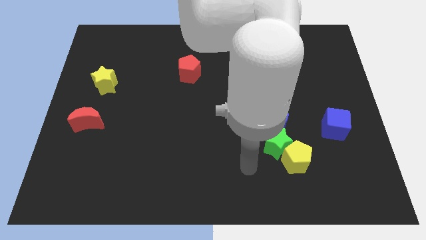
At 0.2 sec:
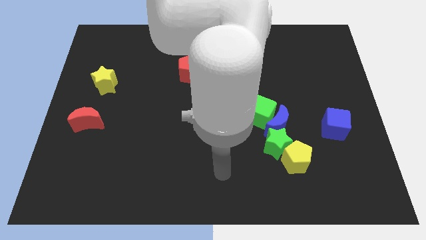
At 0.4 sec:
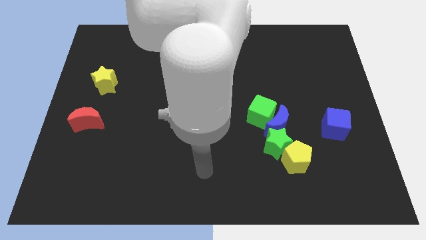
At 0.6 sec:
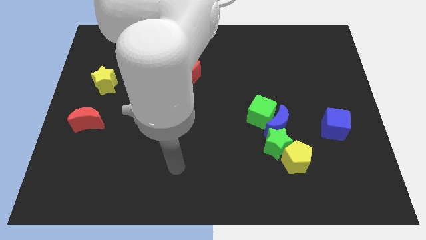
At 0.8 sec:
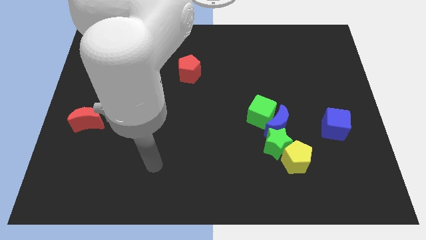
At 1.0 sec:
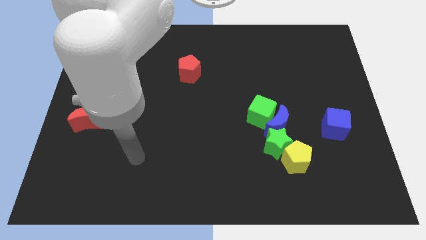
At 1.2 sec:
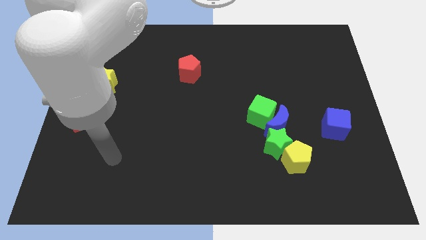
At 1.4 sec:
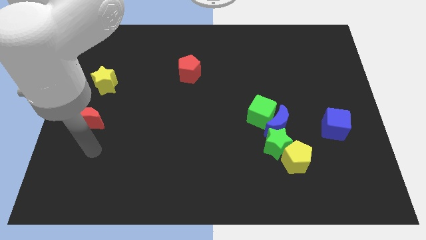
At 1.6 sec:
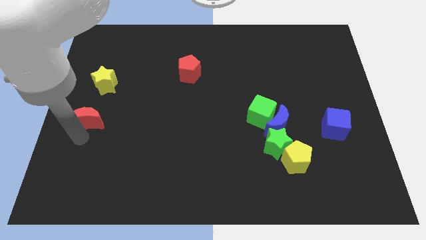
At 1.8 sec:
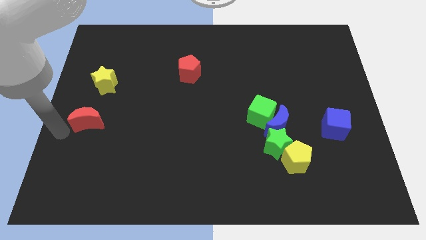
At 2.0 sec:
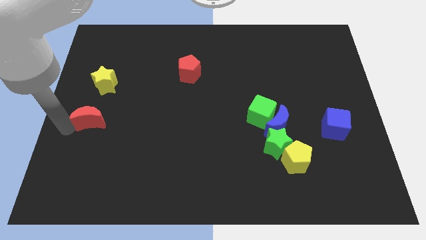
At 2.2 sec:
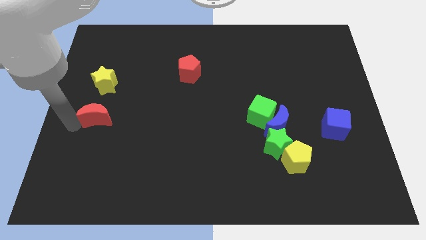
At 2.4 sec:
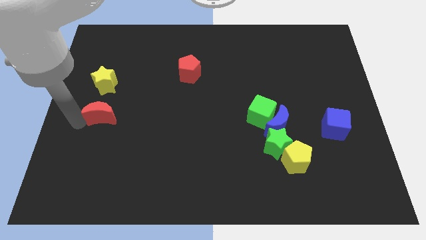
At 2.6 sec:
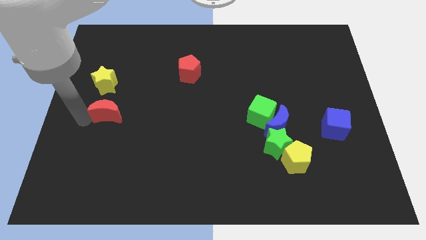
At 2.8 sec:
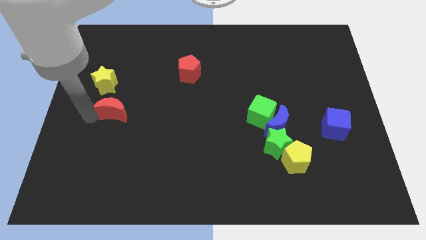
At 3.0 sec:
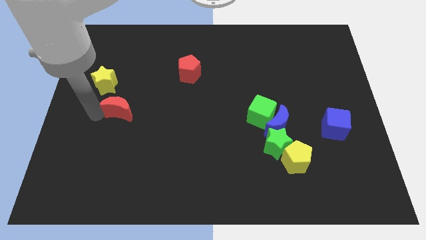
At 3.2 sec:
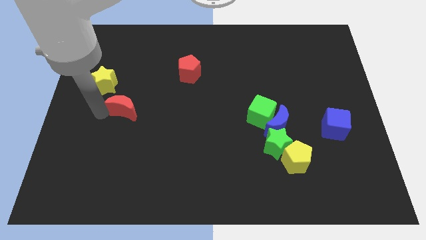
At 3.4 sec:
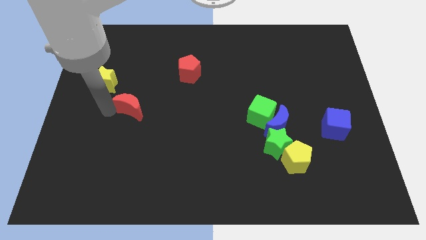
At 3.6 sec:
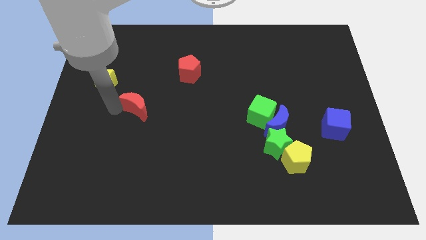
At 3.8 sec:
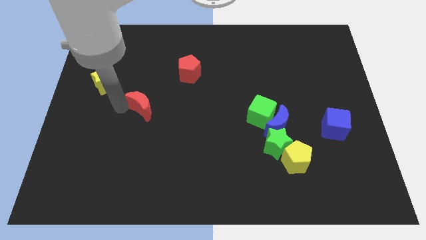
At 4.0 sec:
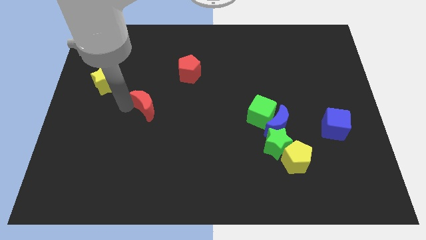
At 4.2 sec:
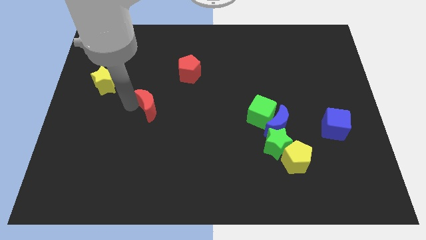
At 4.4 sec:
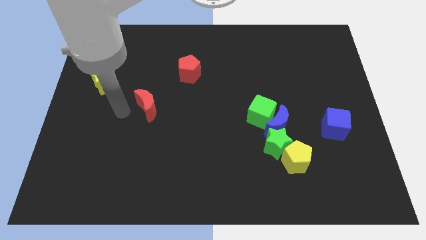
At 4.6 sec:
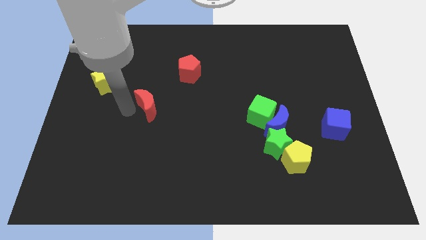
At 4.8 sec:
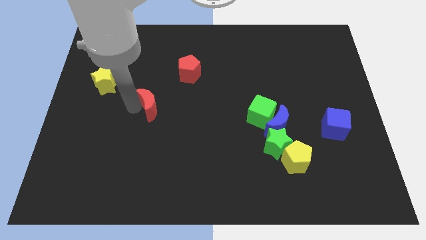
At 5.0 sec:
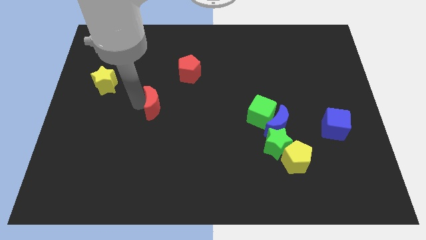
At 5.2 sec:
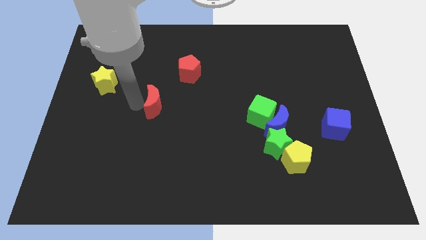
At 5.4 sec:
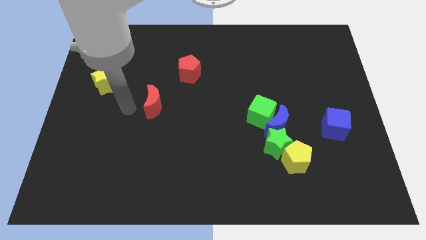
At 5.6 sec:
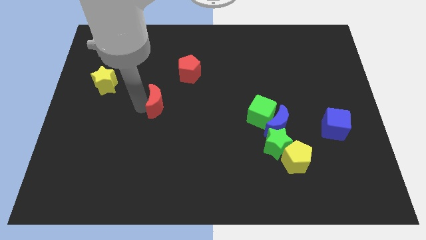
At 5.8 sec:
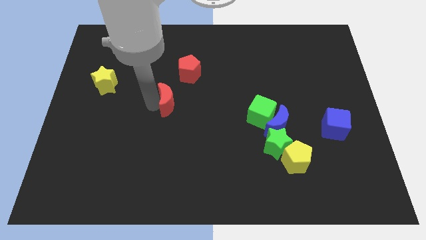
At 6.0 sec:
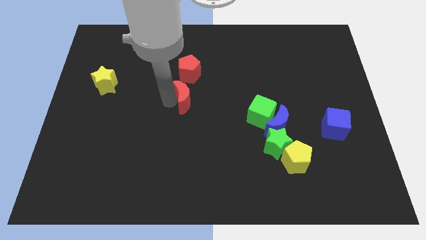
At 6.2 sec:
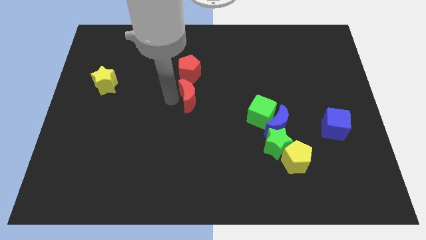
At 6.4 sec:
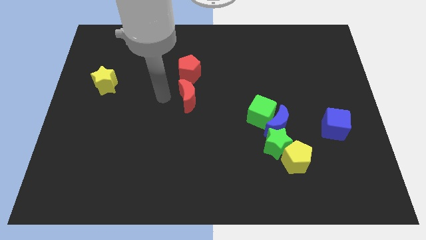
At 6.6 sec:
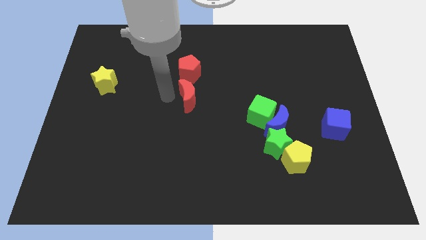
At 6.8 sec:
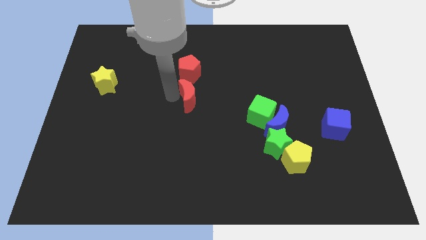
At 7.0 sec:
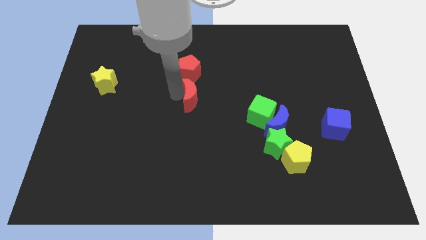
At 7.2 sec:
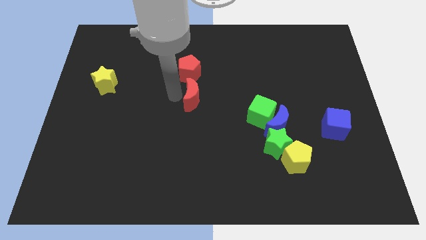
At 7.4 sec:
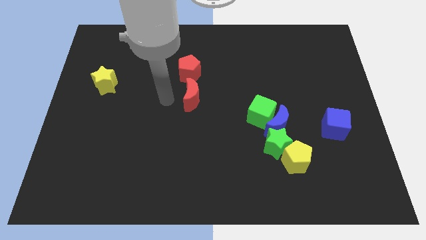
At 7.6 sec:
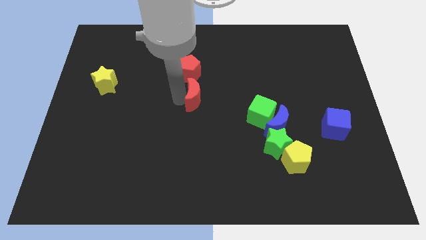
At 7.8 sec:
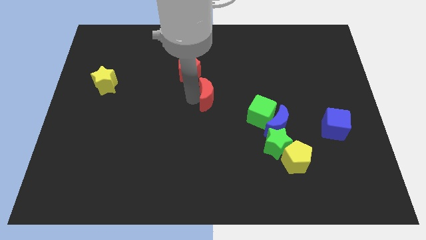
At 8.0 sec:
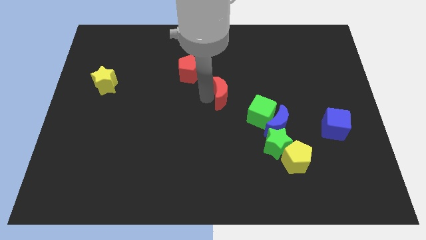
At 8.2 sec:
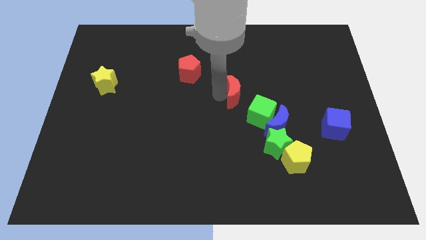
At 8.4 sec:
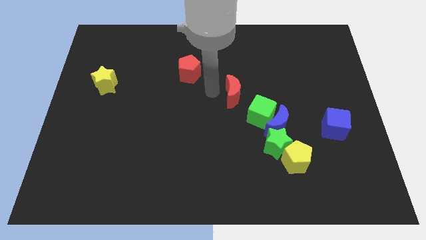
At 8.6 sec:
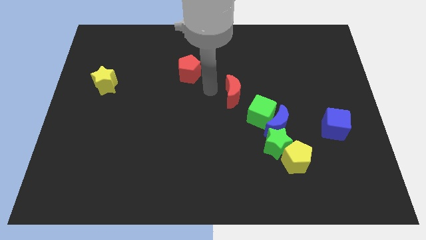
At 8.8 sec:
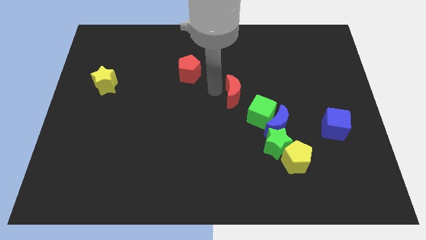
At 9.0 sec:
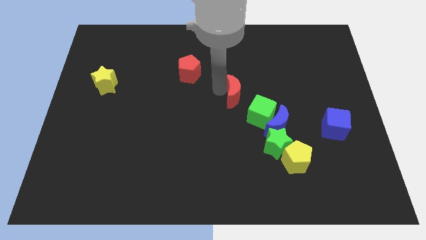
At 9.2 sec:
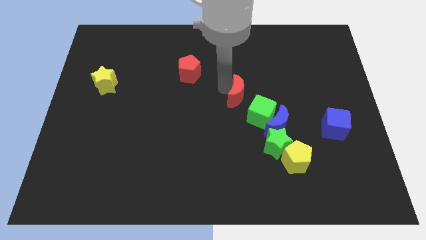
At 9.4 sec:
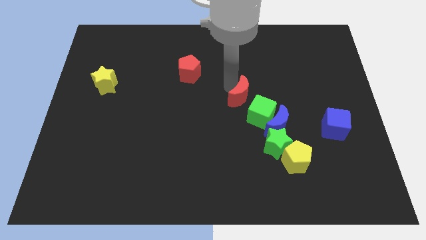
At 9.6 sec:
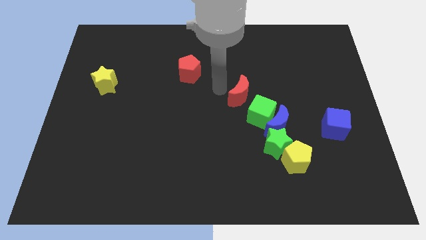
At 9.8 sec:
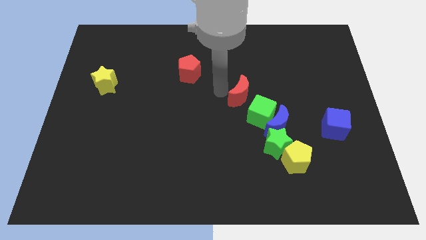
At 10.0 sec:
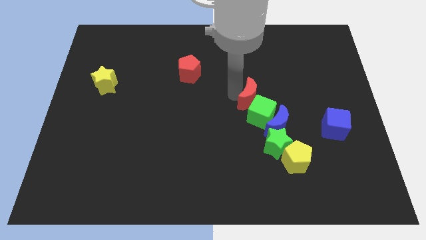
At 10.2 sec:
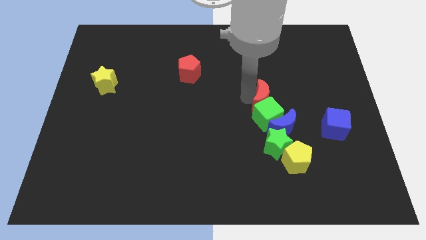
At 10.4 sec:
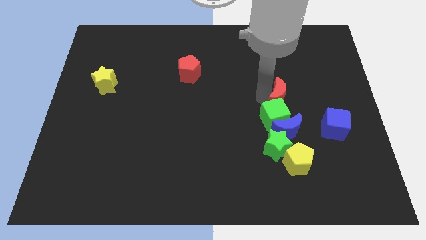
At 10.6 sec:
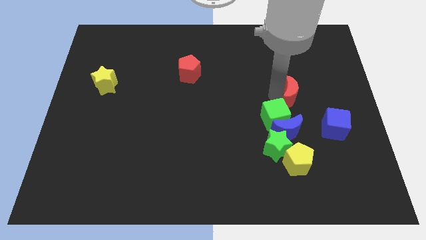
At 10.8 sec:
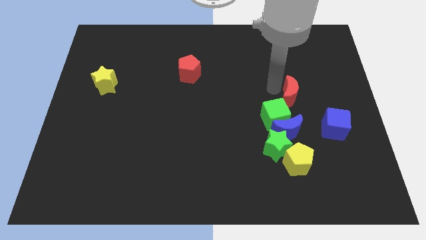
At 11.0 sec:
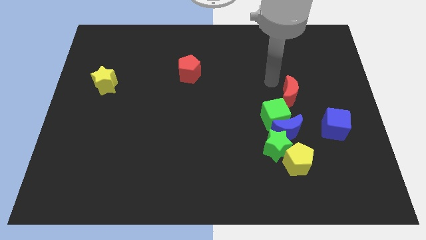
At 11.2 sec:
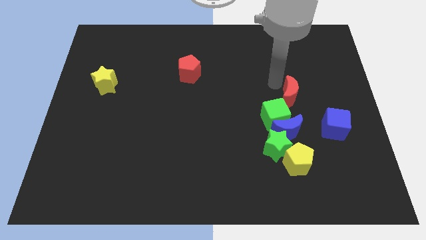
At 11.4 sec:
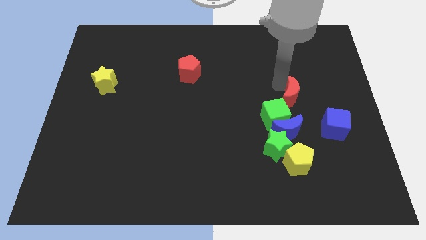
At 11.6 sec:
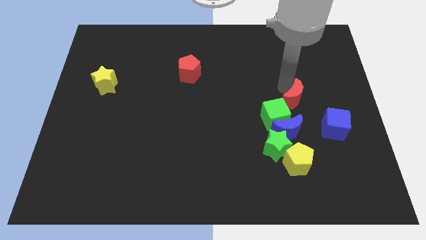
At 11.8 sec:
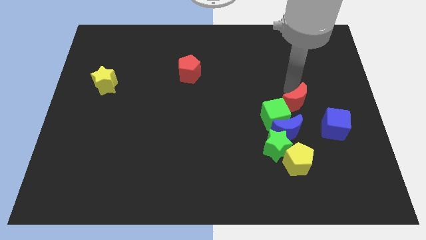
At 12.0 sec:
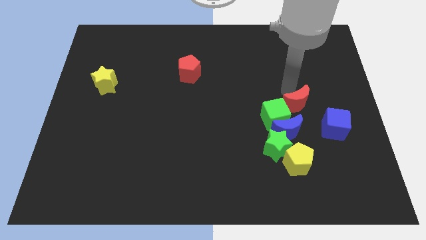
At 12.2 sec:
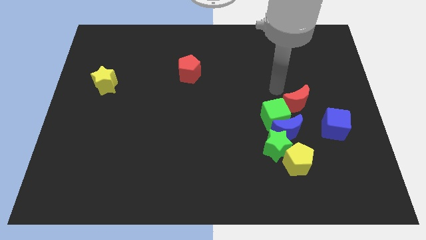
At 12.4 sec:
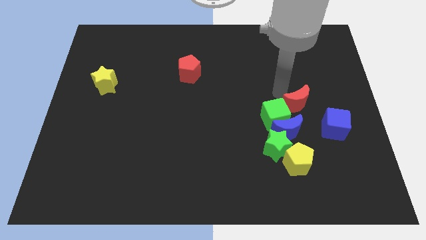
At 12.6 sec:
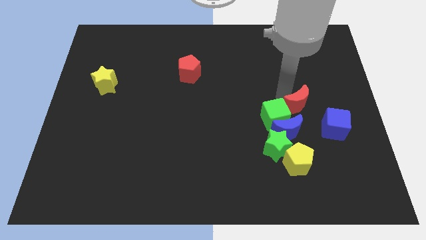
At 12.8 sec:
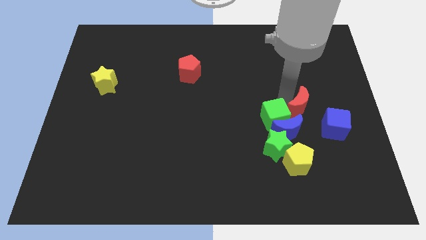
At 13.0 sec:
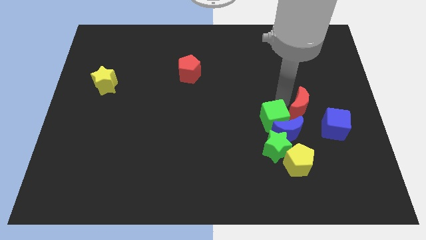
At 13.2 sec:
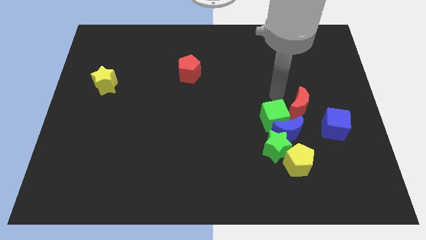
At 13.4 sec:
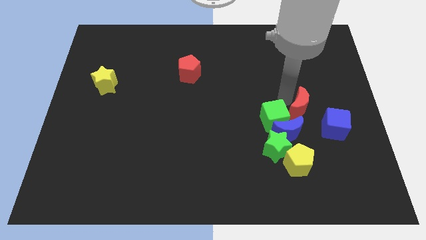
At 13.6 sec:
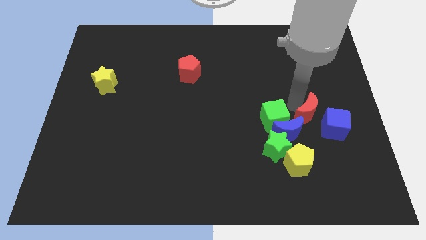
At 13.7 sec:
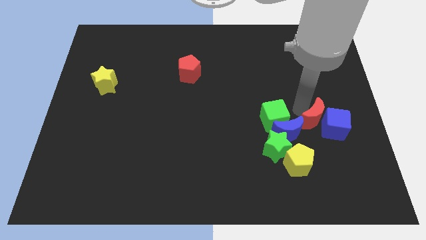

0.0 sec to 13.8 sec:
slide the red moon to the blue cube

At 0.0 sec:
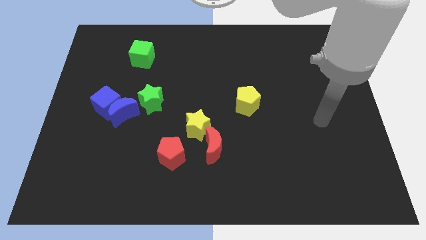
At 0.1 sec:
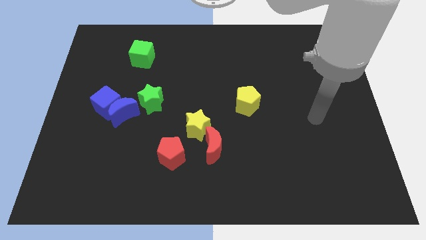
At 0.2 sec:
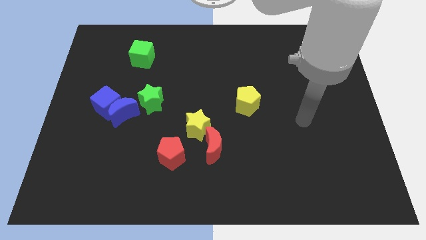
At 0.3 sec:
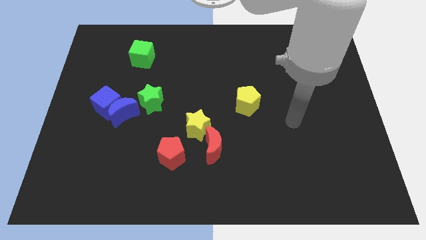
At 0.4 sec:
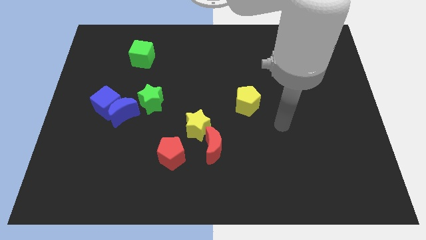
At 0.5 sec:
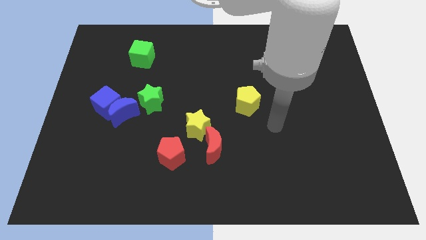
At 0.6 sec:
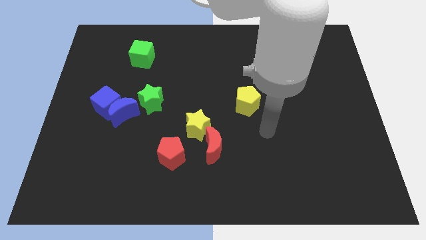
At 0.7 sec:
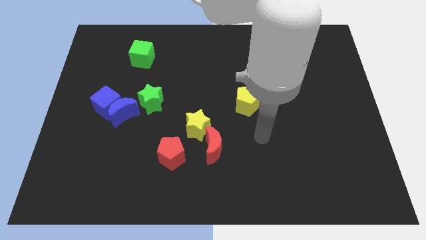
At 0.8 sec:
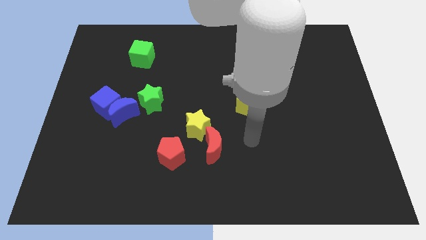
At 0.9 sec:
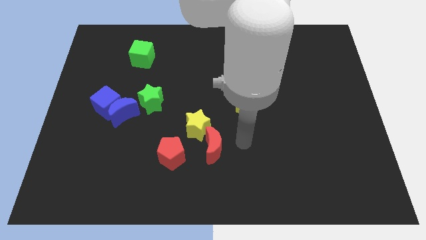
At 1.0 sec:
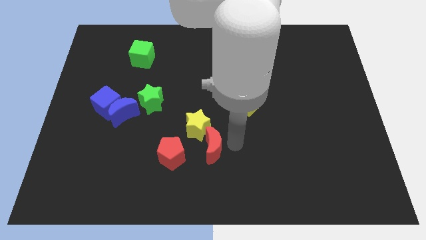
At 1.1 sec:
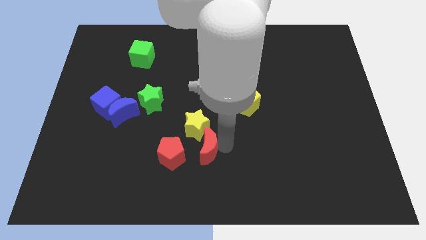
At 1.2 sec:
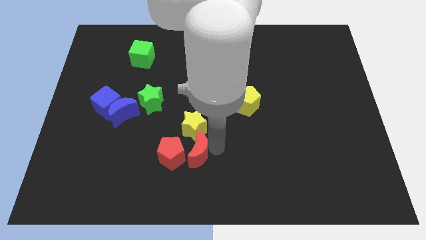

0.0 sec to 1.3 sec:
push the red moon next to the red pentagon
